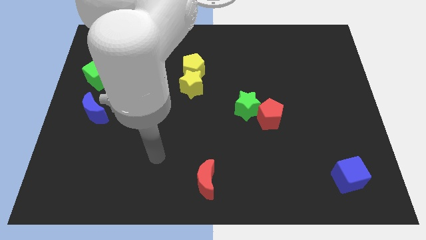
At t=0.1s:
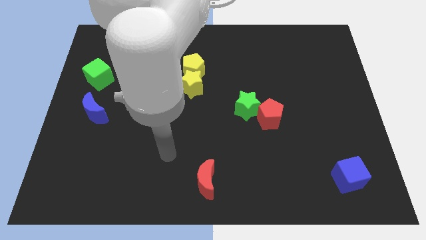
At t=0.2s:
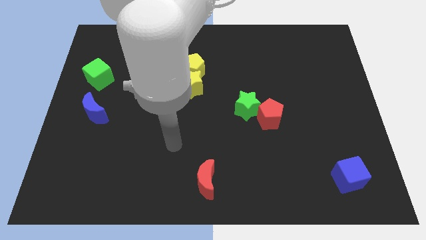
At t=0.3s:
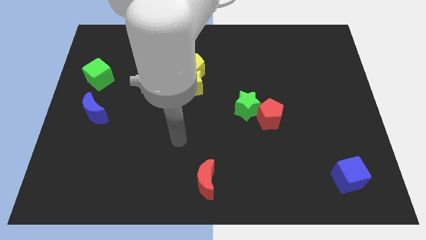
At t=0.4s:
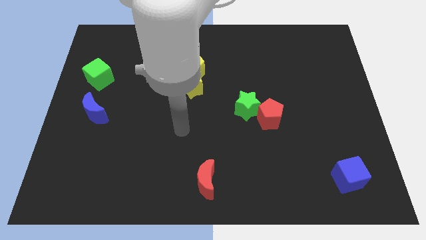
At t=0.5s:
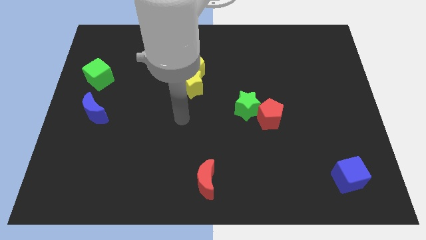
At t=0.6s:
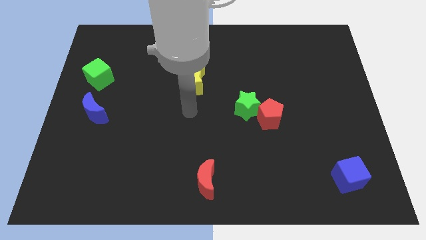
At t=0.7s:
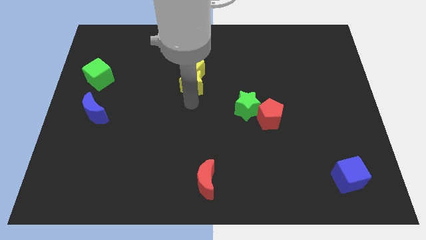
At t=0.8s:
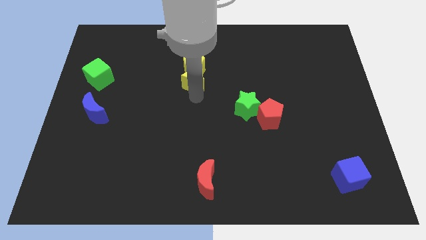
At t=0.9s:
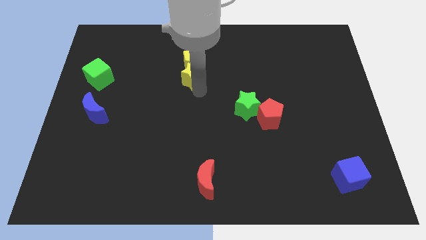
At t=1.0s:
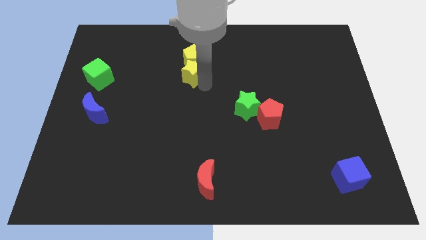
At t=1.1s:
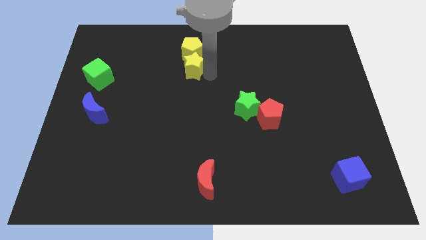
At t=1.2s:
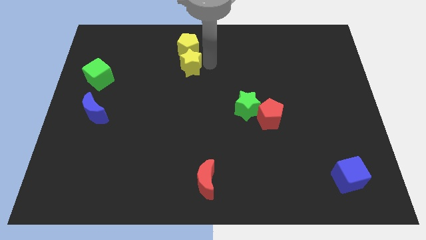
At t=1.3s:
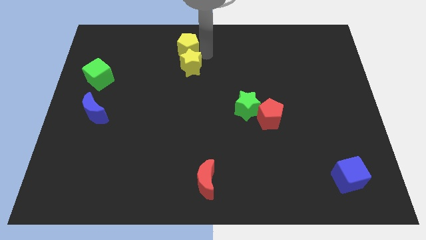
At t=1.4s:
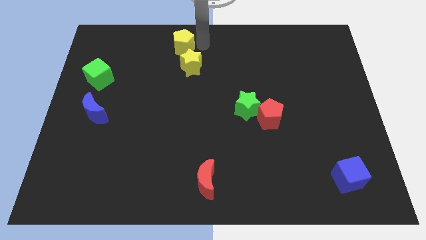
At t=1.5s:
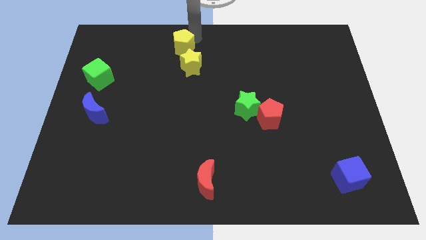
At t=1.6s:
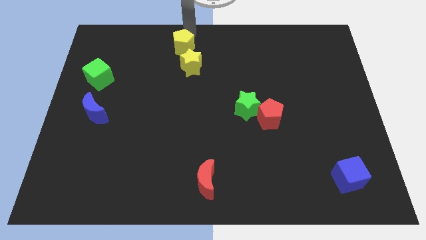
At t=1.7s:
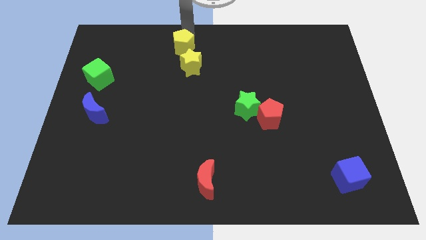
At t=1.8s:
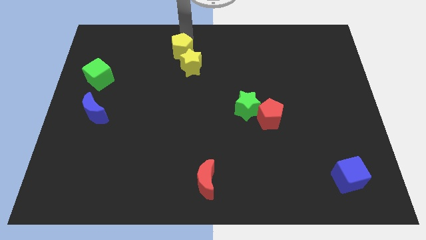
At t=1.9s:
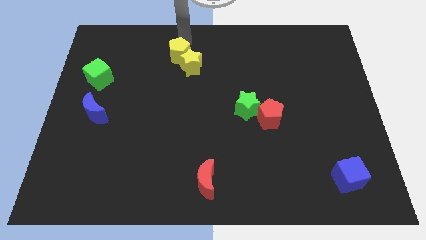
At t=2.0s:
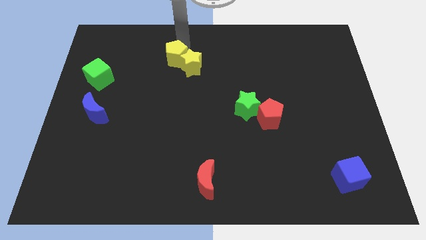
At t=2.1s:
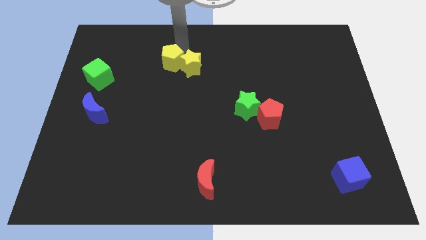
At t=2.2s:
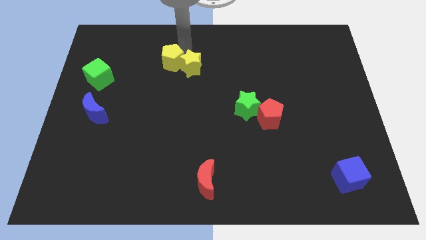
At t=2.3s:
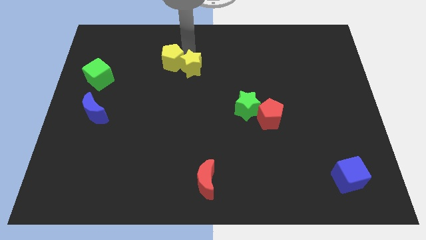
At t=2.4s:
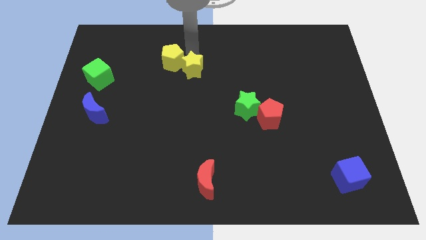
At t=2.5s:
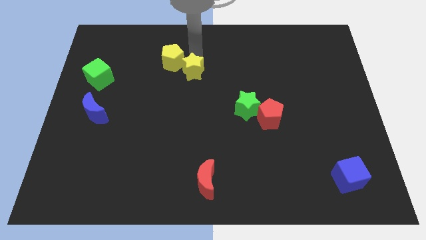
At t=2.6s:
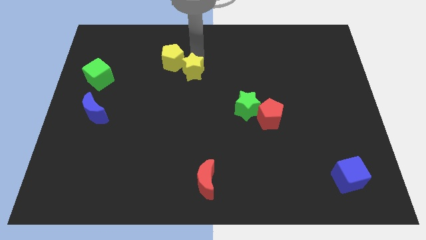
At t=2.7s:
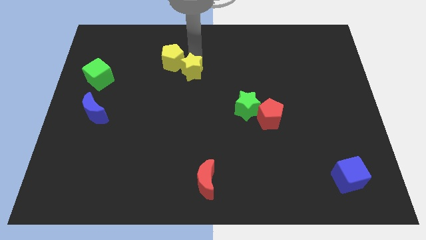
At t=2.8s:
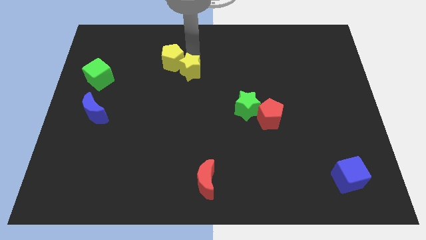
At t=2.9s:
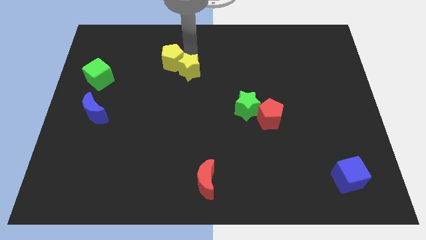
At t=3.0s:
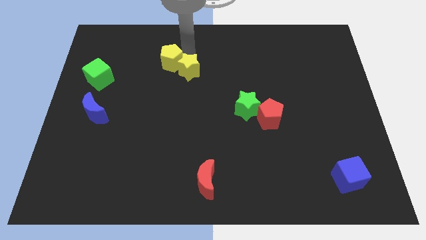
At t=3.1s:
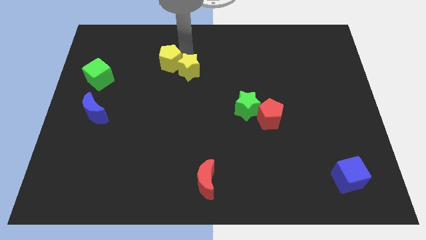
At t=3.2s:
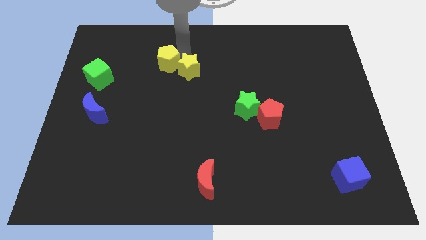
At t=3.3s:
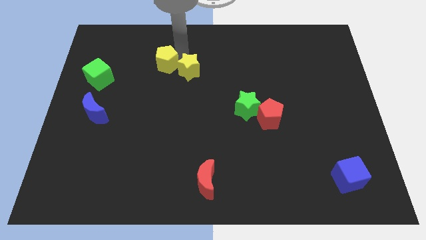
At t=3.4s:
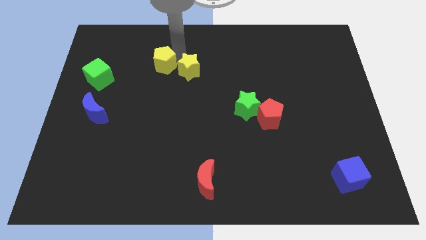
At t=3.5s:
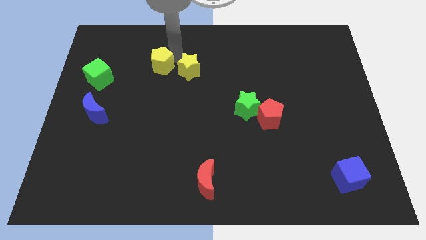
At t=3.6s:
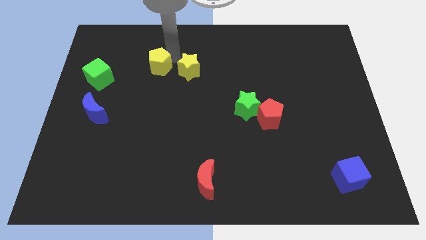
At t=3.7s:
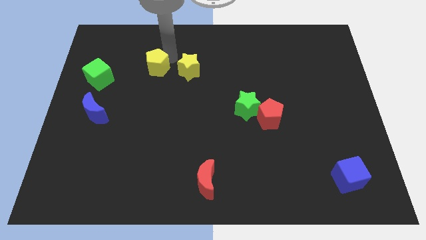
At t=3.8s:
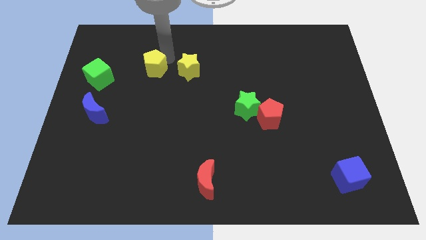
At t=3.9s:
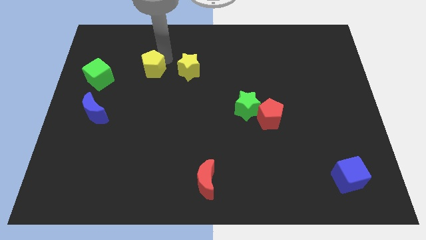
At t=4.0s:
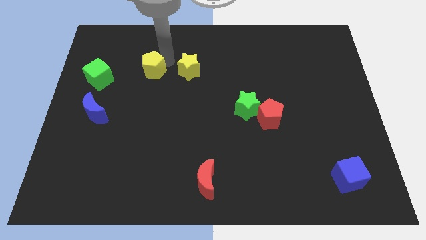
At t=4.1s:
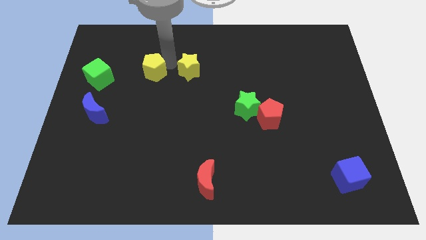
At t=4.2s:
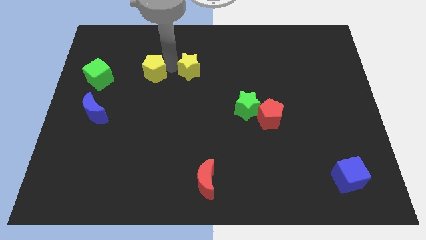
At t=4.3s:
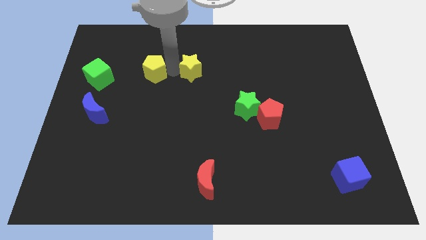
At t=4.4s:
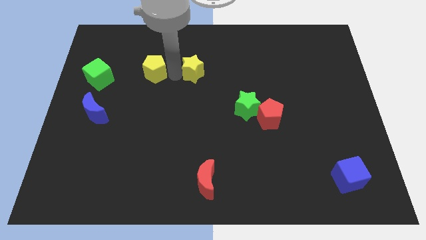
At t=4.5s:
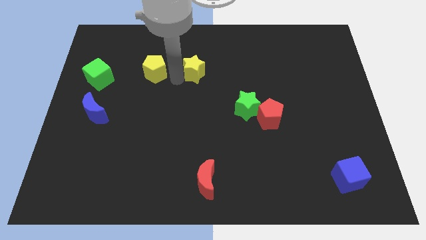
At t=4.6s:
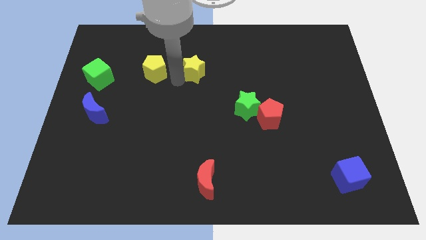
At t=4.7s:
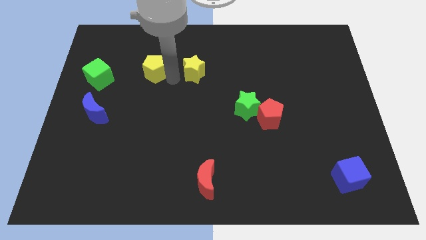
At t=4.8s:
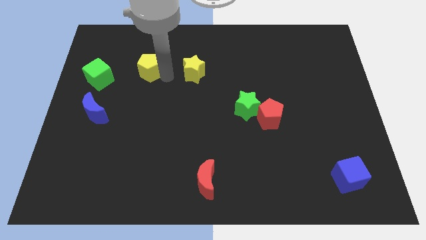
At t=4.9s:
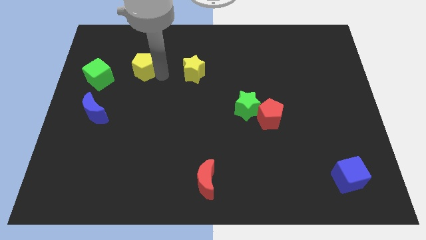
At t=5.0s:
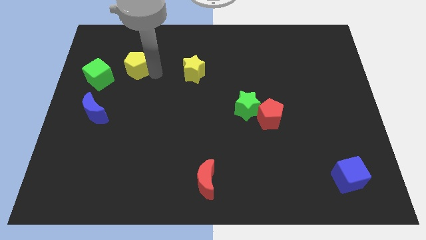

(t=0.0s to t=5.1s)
push the yellow pentagon diagonally up and to the right of the green cube

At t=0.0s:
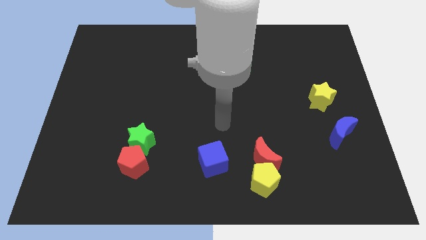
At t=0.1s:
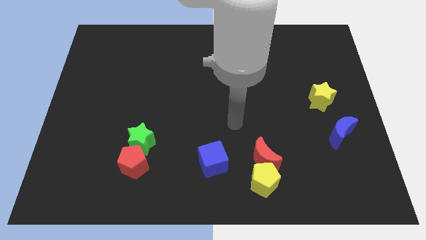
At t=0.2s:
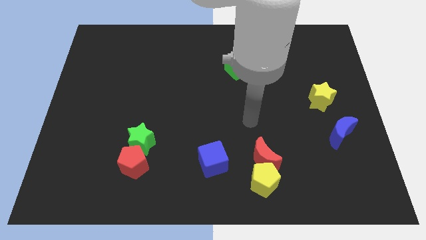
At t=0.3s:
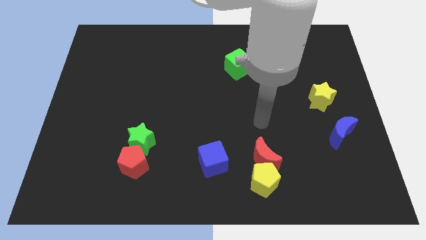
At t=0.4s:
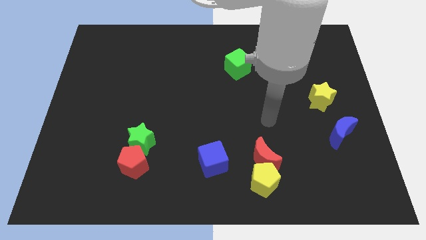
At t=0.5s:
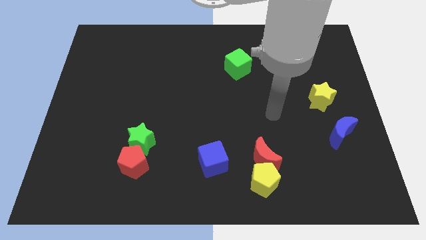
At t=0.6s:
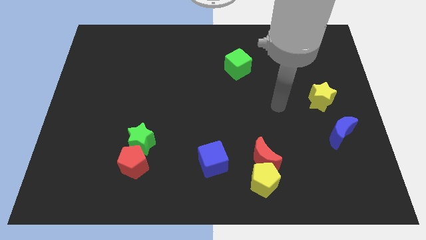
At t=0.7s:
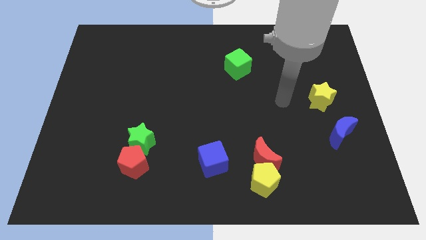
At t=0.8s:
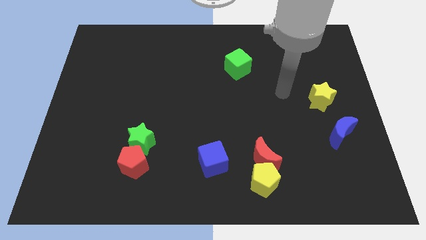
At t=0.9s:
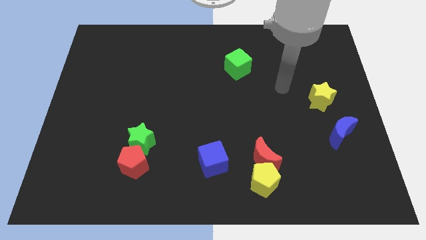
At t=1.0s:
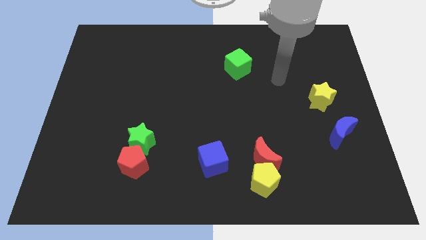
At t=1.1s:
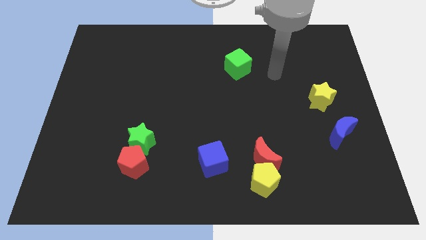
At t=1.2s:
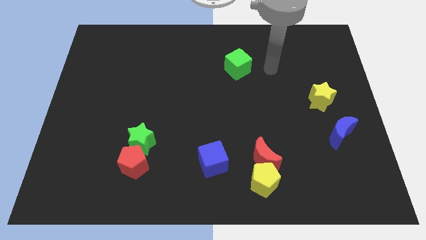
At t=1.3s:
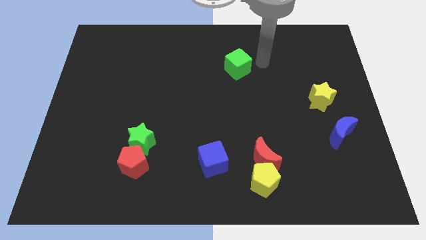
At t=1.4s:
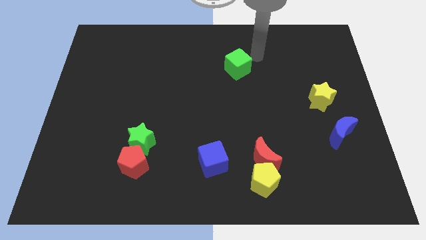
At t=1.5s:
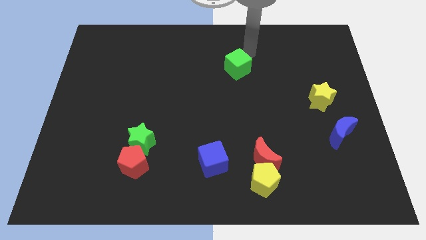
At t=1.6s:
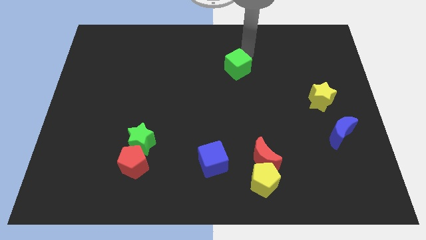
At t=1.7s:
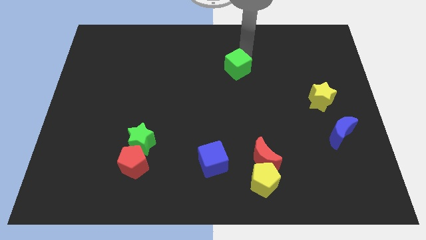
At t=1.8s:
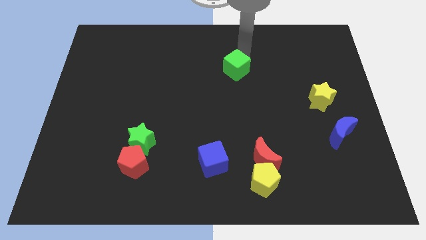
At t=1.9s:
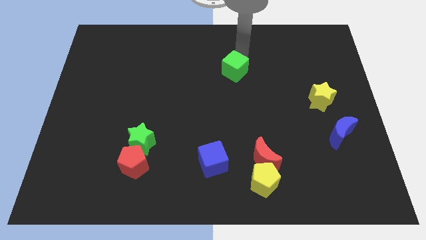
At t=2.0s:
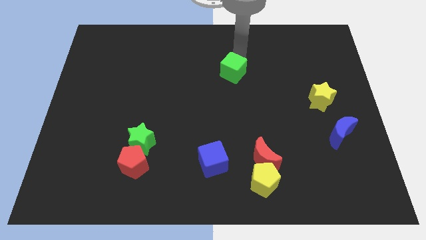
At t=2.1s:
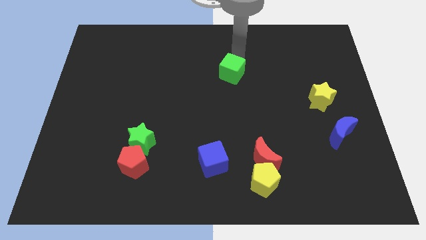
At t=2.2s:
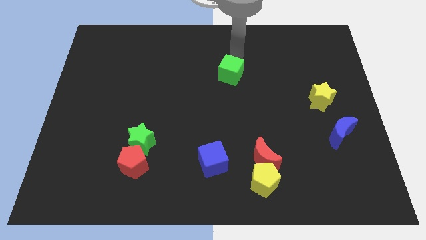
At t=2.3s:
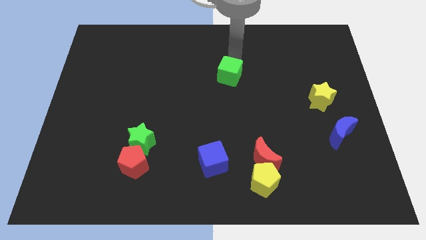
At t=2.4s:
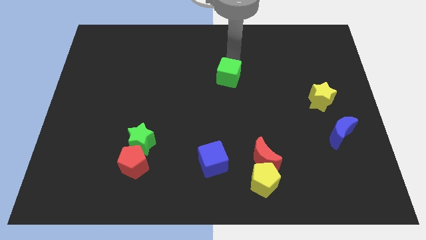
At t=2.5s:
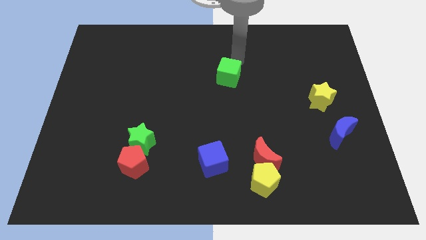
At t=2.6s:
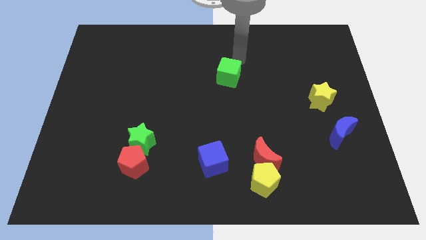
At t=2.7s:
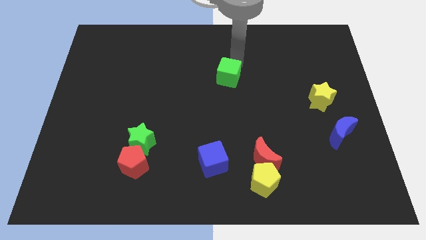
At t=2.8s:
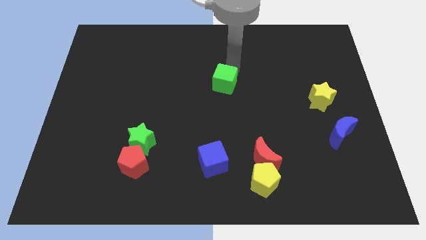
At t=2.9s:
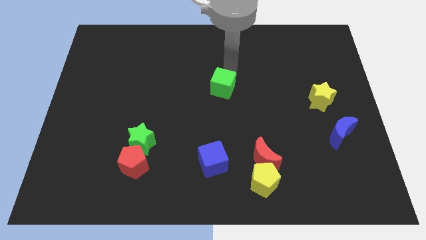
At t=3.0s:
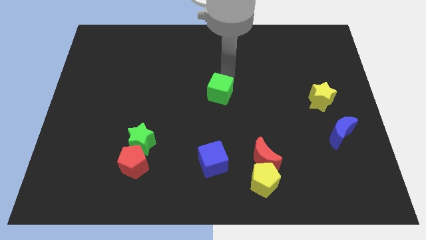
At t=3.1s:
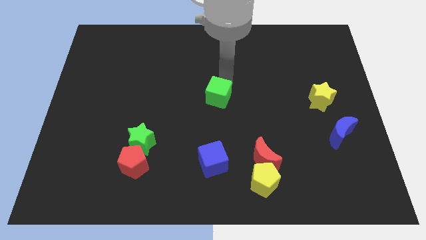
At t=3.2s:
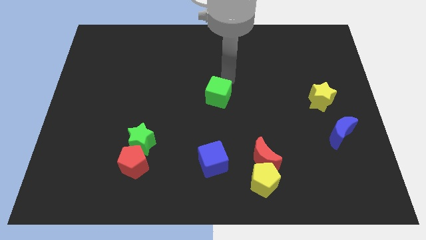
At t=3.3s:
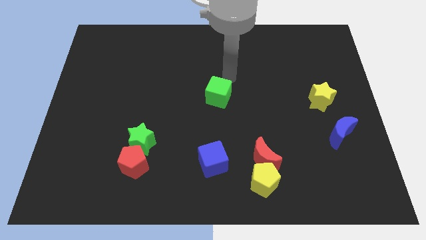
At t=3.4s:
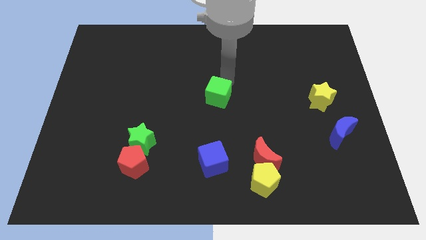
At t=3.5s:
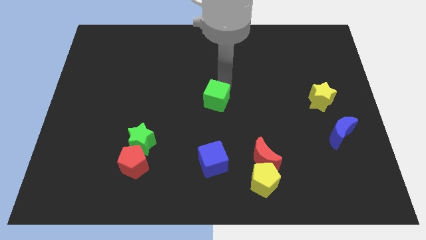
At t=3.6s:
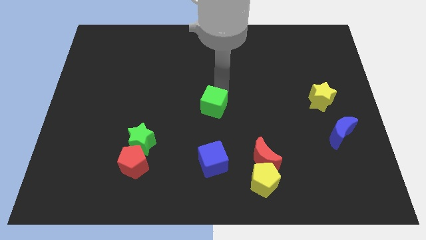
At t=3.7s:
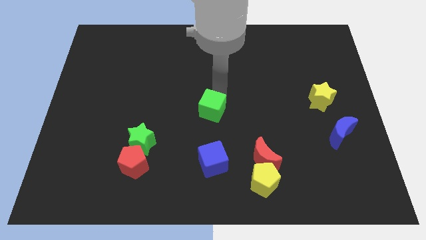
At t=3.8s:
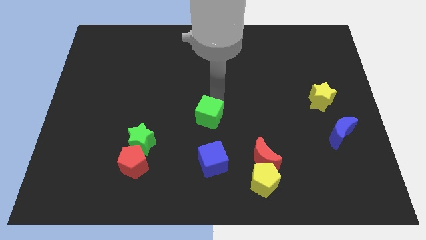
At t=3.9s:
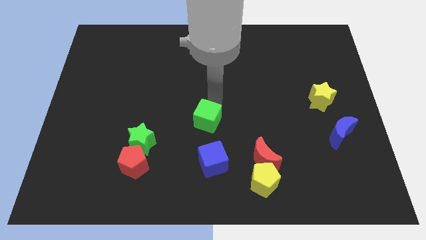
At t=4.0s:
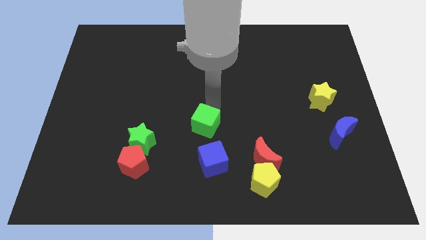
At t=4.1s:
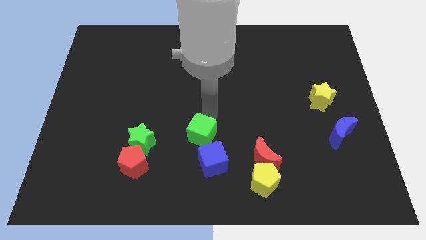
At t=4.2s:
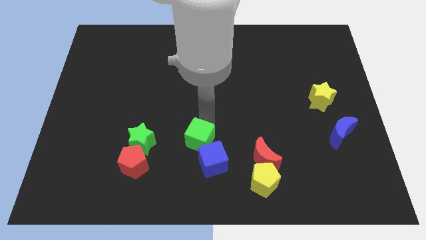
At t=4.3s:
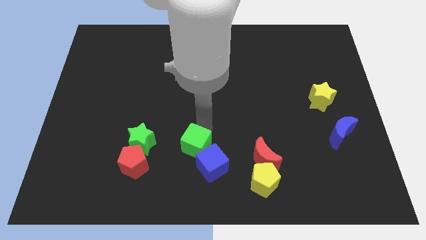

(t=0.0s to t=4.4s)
move the green cube to the left side of the red moon
